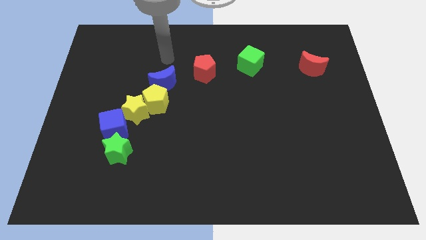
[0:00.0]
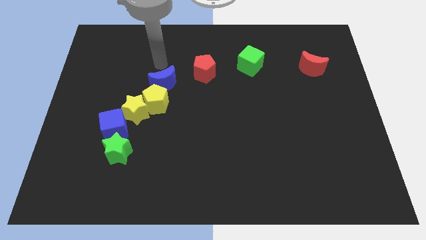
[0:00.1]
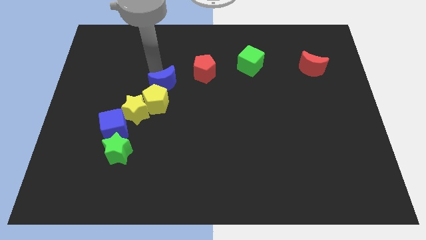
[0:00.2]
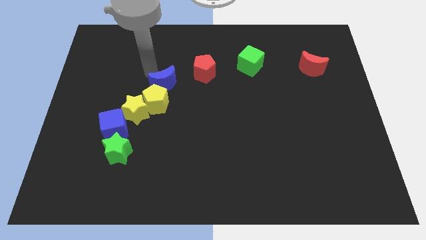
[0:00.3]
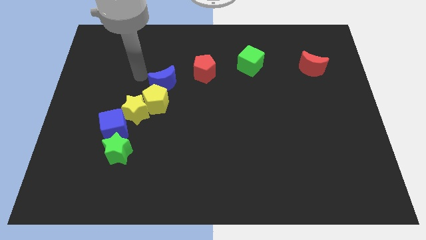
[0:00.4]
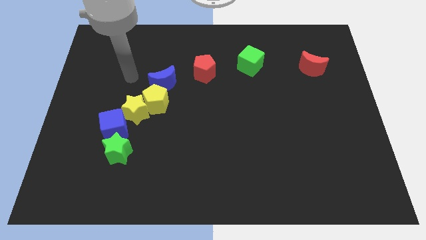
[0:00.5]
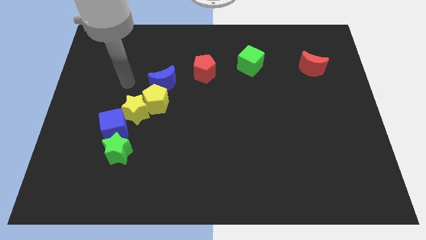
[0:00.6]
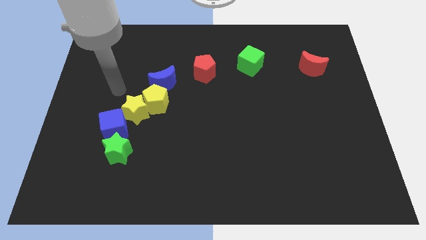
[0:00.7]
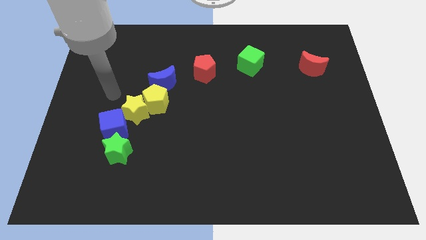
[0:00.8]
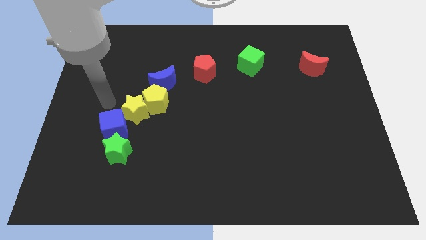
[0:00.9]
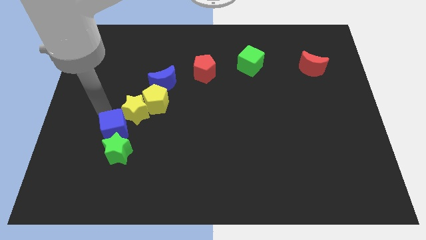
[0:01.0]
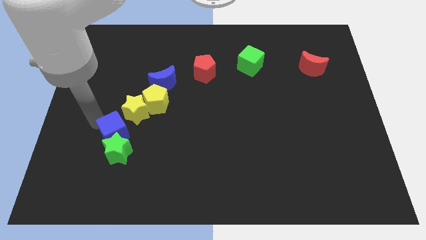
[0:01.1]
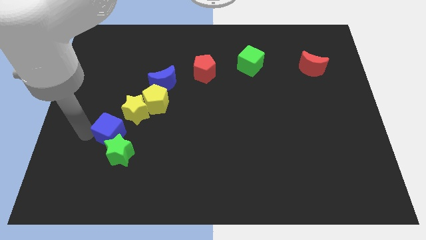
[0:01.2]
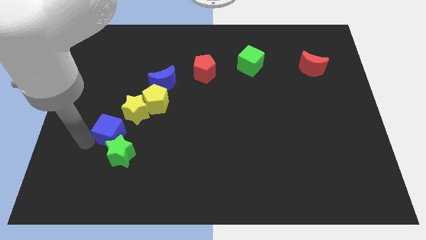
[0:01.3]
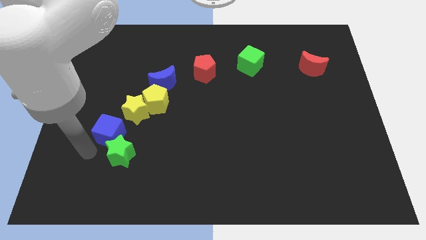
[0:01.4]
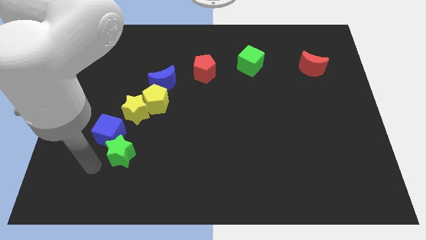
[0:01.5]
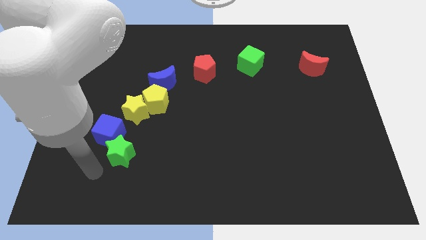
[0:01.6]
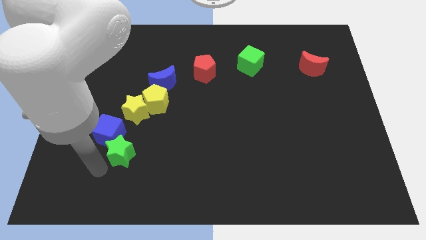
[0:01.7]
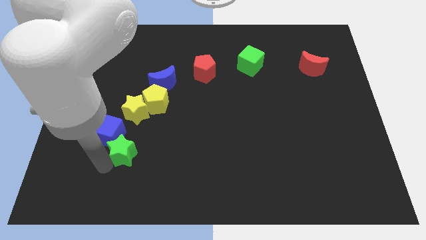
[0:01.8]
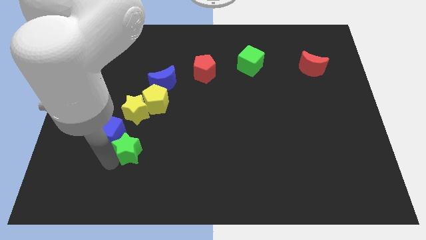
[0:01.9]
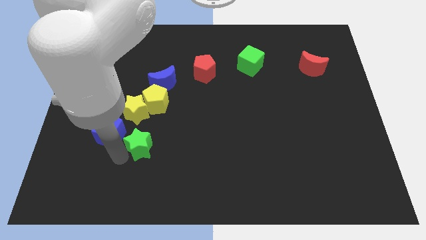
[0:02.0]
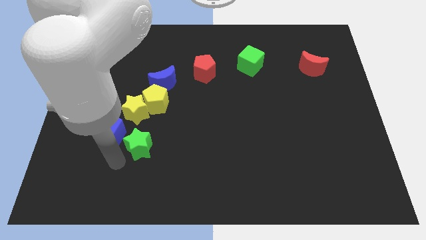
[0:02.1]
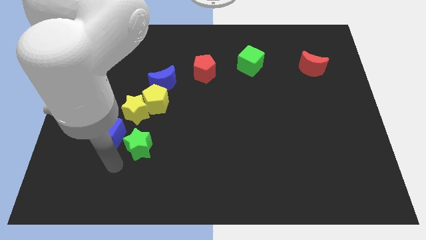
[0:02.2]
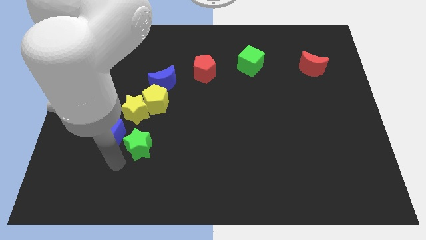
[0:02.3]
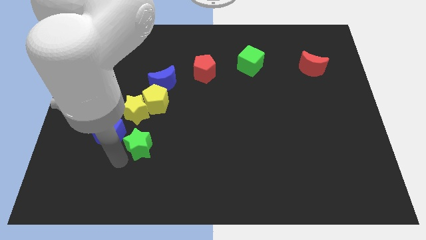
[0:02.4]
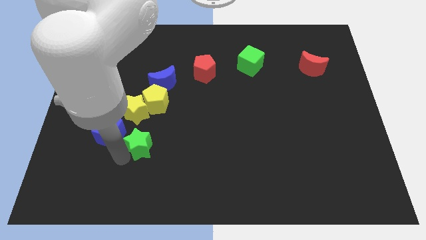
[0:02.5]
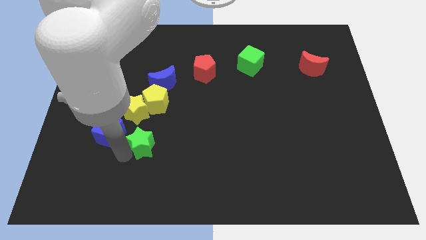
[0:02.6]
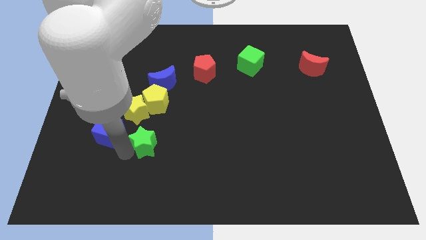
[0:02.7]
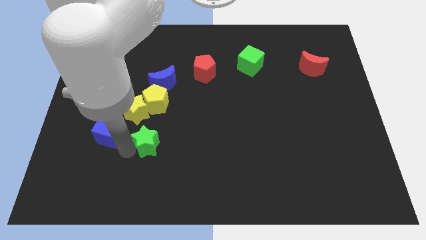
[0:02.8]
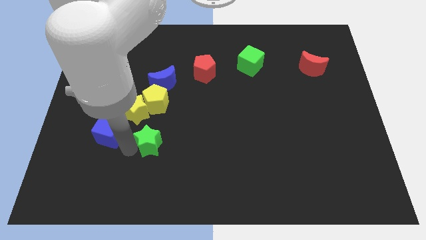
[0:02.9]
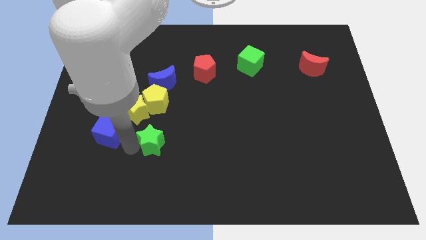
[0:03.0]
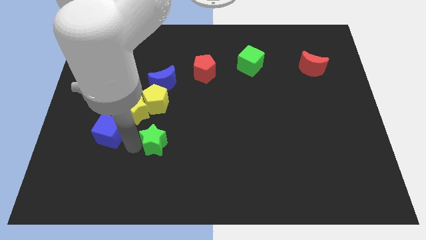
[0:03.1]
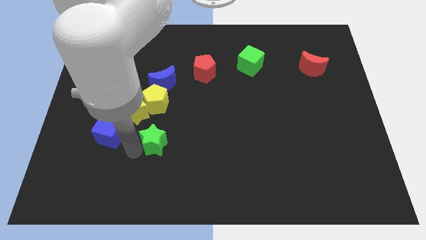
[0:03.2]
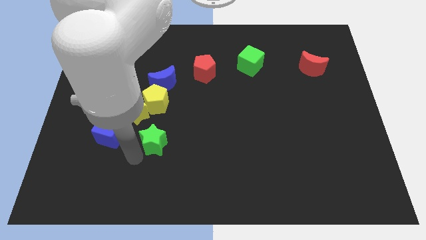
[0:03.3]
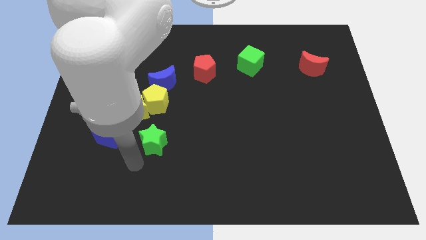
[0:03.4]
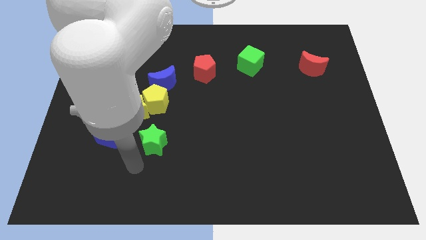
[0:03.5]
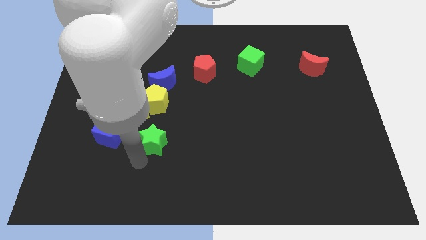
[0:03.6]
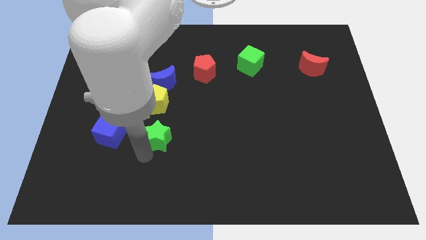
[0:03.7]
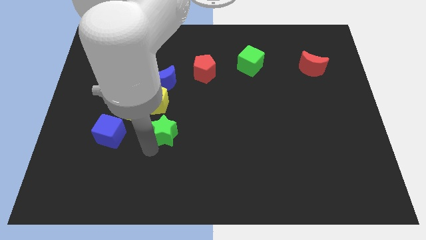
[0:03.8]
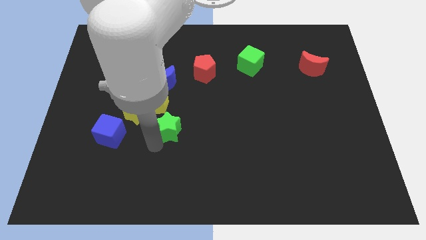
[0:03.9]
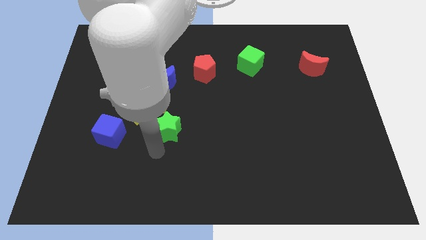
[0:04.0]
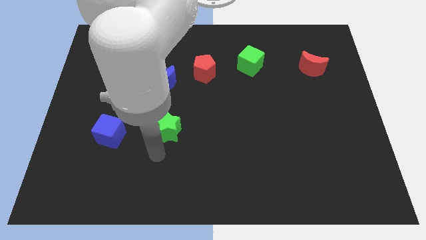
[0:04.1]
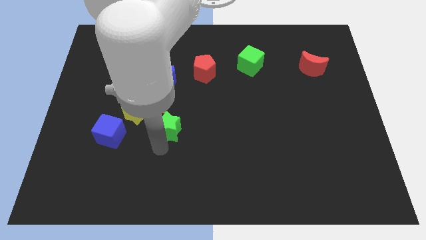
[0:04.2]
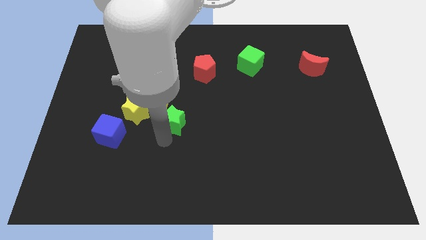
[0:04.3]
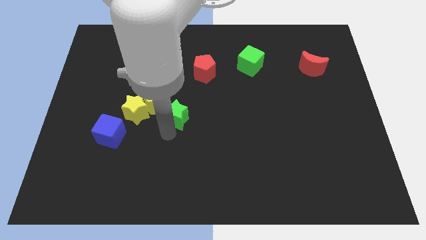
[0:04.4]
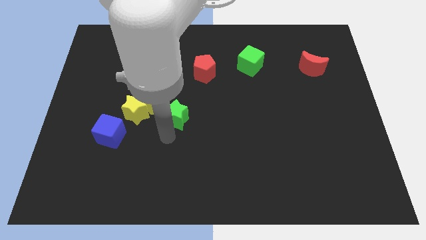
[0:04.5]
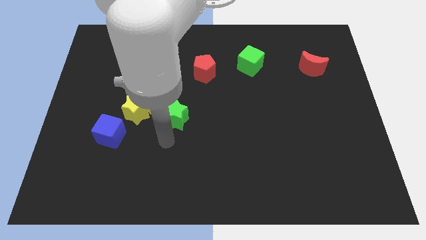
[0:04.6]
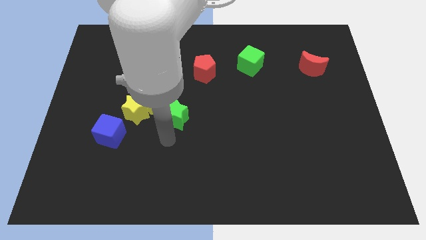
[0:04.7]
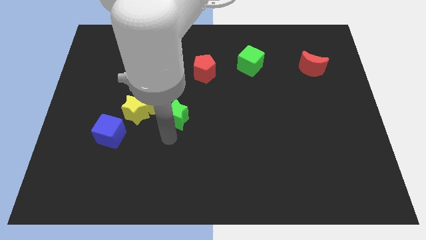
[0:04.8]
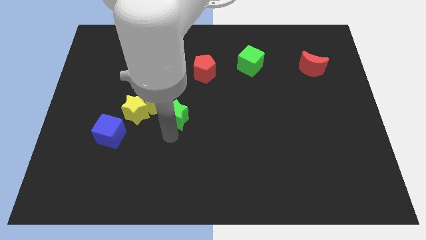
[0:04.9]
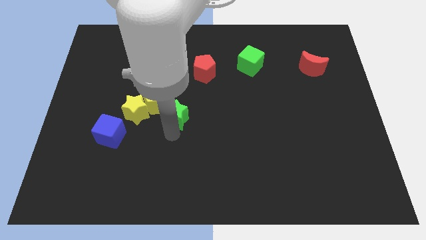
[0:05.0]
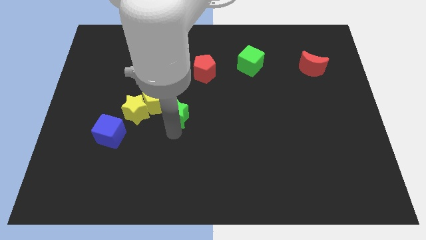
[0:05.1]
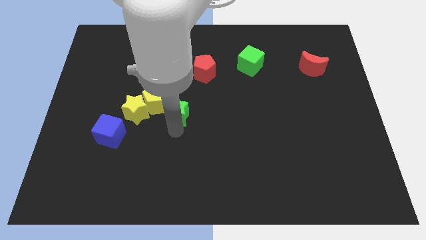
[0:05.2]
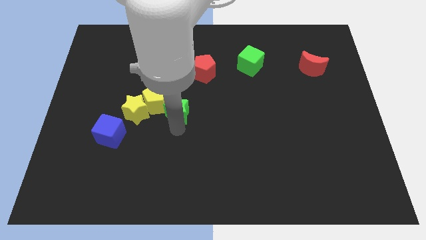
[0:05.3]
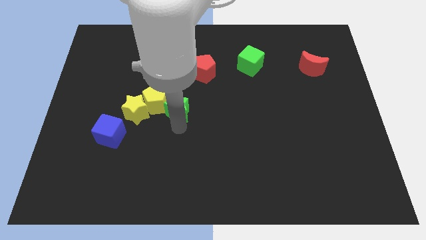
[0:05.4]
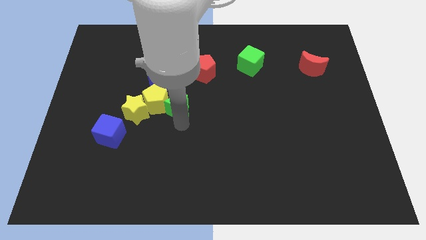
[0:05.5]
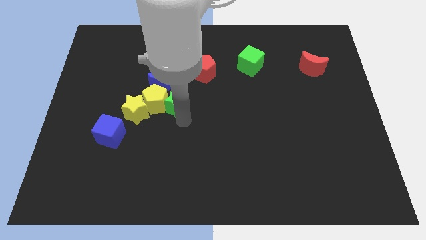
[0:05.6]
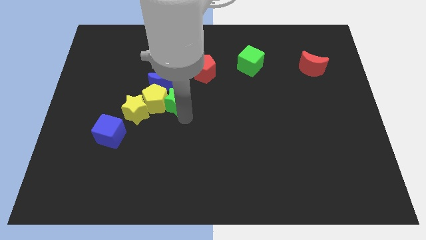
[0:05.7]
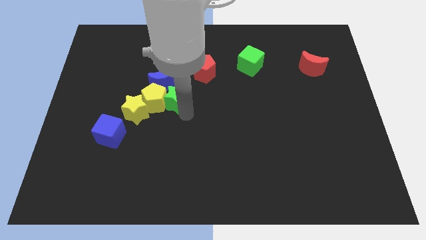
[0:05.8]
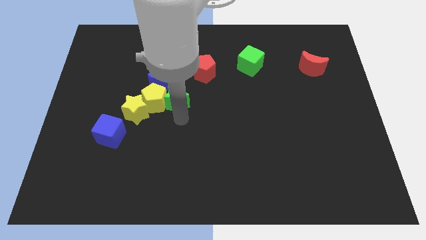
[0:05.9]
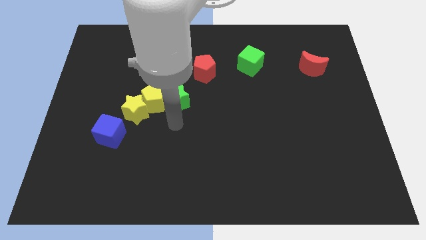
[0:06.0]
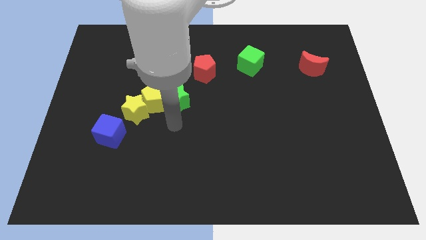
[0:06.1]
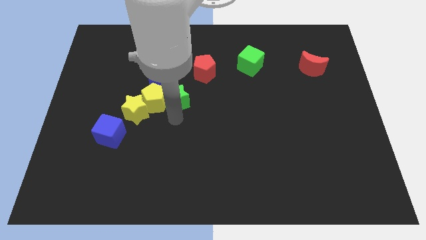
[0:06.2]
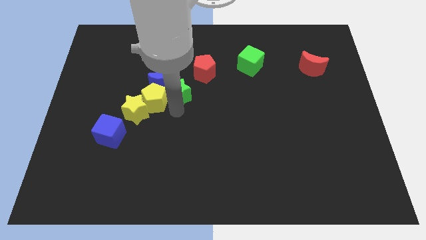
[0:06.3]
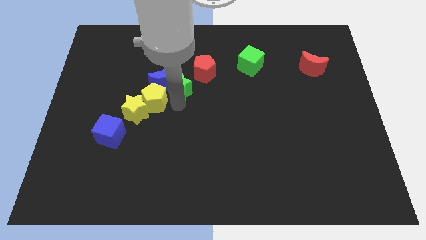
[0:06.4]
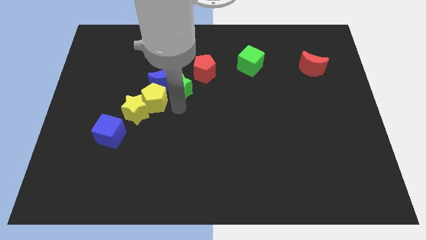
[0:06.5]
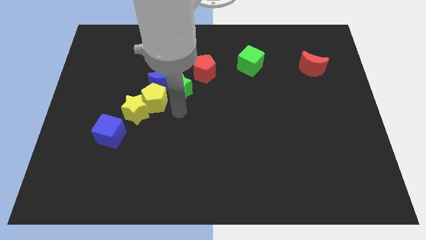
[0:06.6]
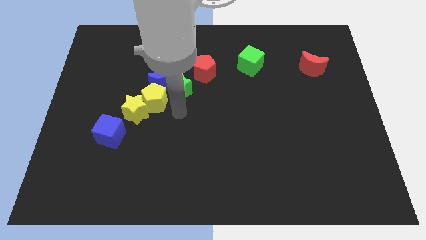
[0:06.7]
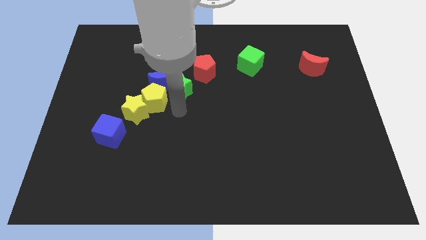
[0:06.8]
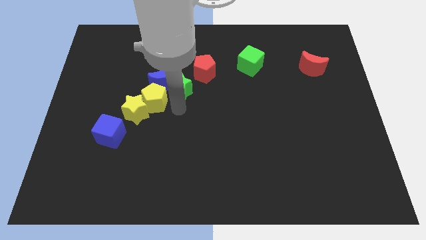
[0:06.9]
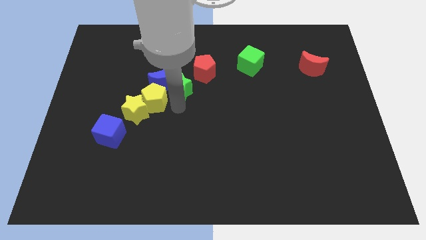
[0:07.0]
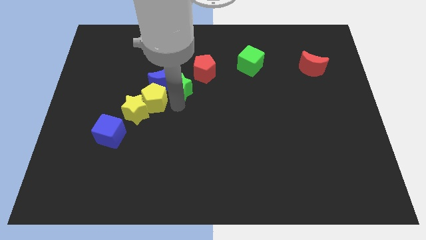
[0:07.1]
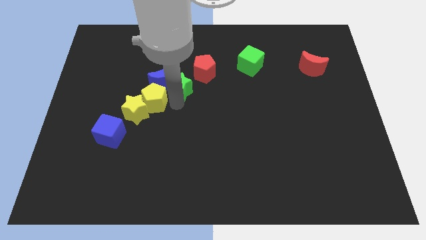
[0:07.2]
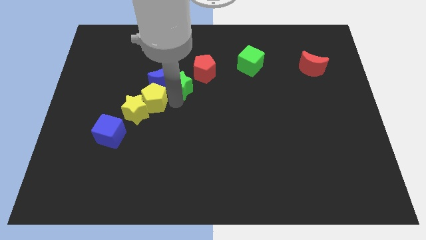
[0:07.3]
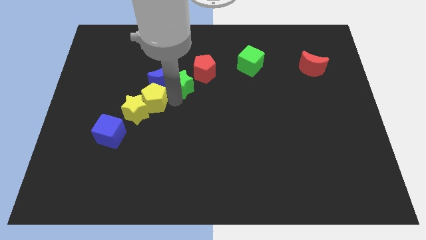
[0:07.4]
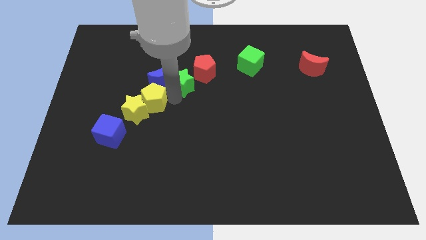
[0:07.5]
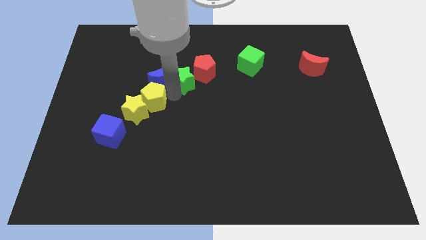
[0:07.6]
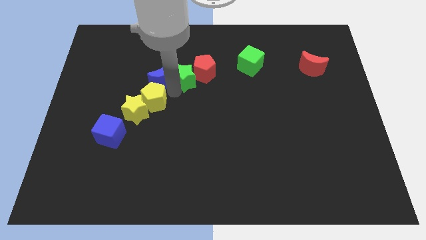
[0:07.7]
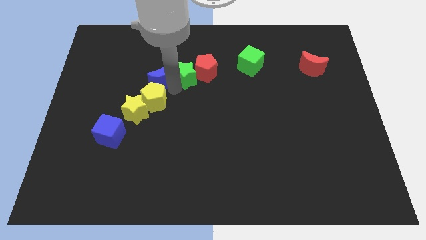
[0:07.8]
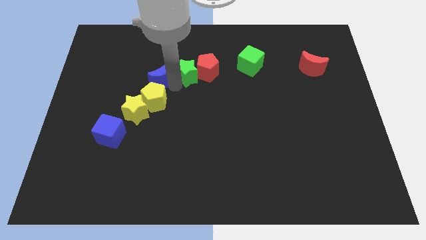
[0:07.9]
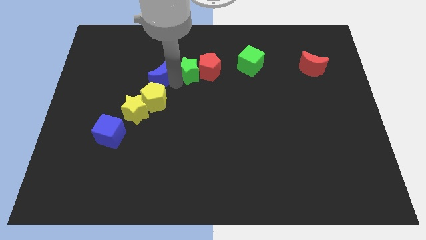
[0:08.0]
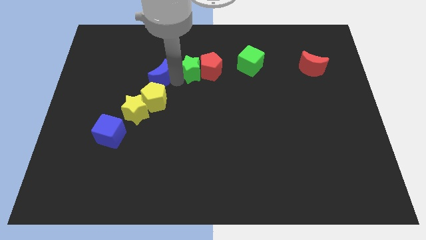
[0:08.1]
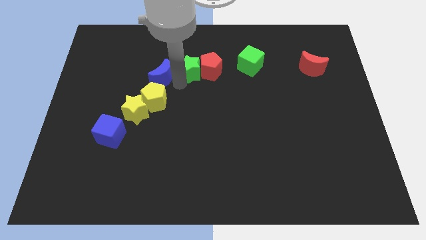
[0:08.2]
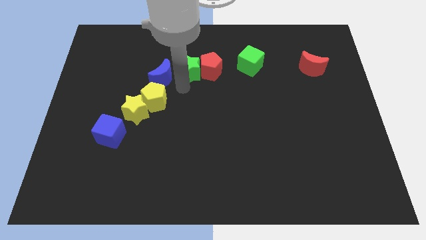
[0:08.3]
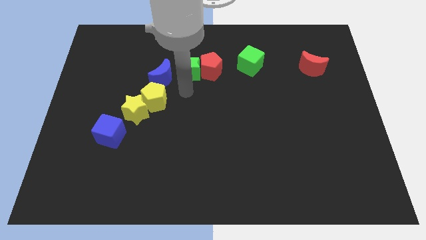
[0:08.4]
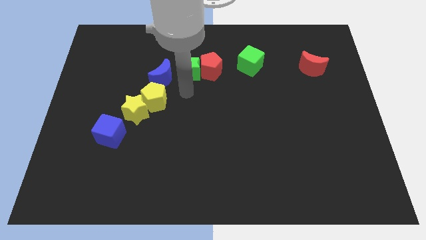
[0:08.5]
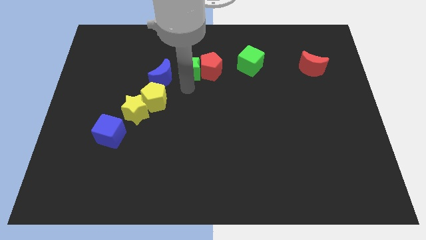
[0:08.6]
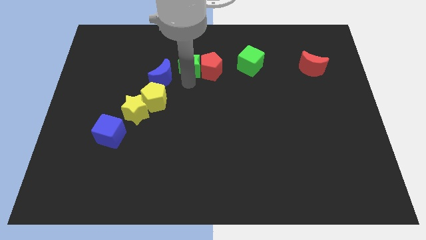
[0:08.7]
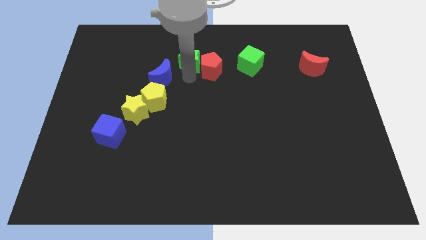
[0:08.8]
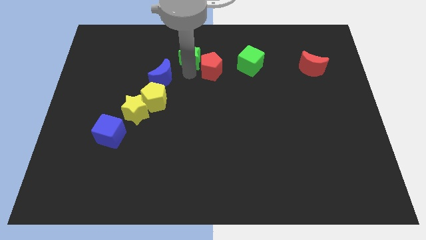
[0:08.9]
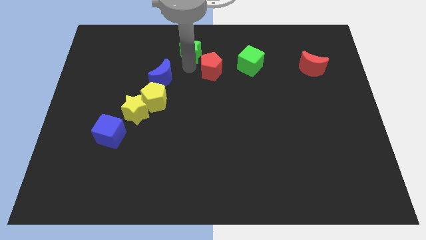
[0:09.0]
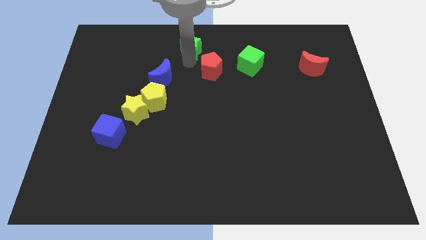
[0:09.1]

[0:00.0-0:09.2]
move the green star to the towards your base
